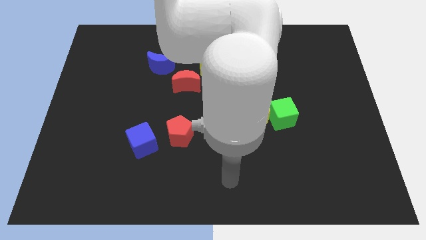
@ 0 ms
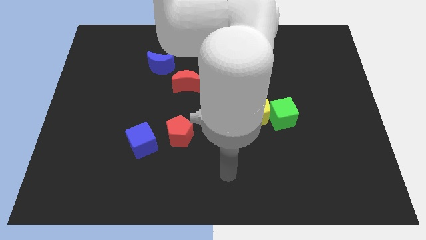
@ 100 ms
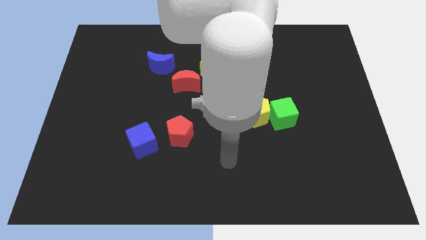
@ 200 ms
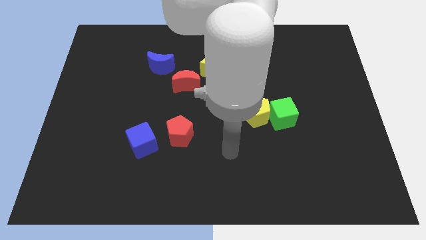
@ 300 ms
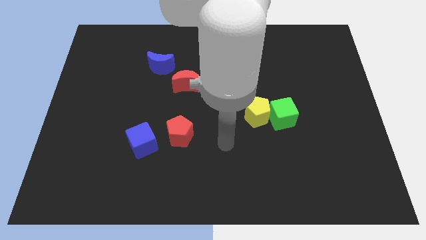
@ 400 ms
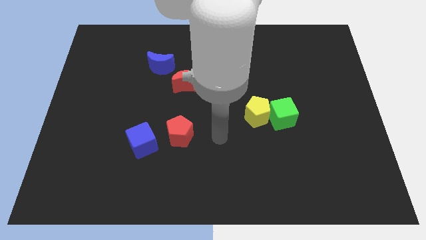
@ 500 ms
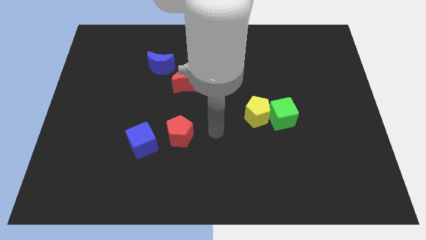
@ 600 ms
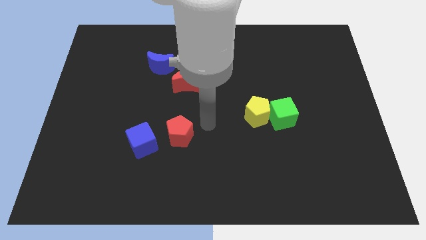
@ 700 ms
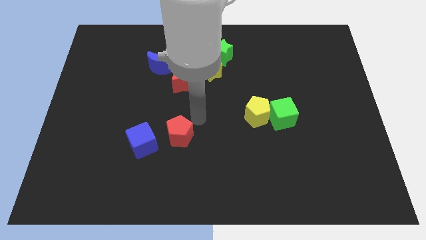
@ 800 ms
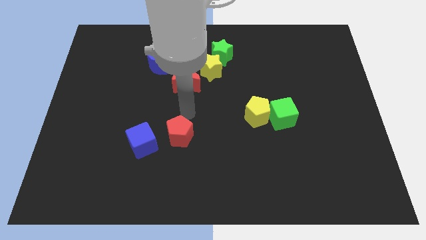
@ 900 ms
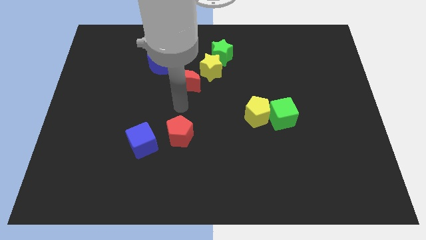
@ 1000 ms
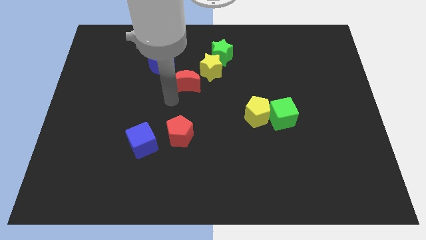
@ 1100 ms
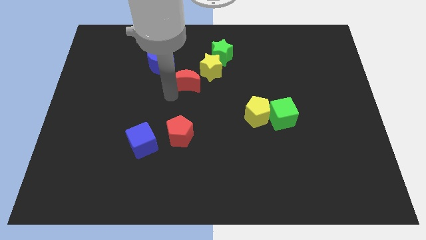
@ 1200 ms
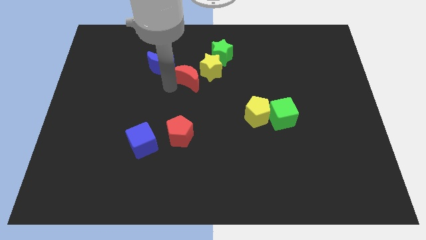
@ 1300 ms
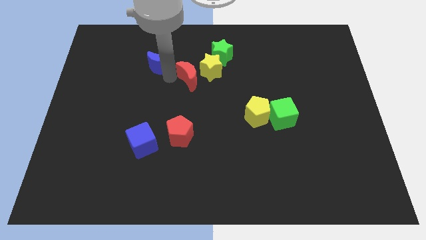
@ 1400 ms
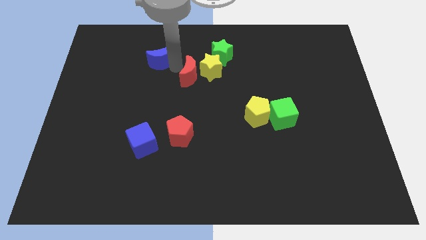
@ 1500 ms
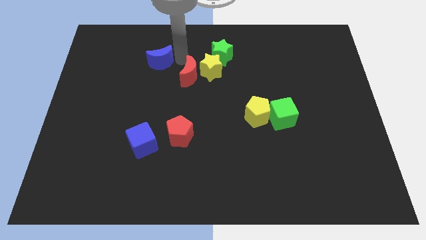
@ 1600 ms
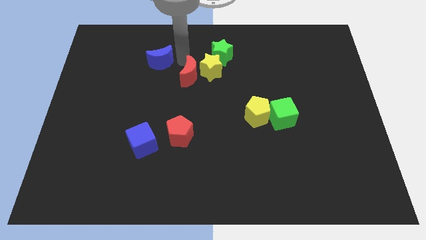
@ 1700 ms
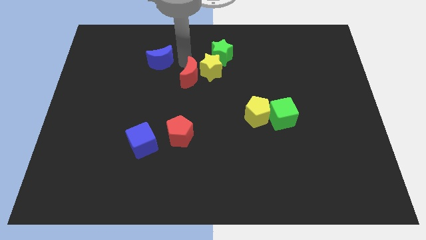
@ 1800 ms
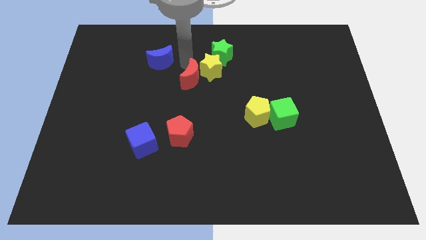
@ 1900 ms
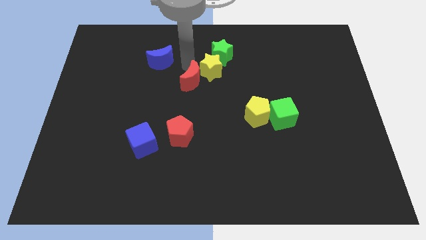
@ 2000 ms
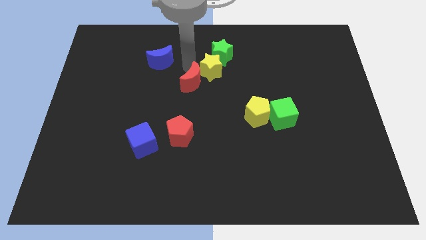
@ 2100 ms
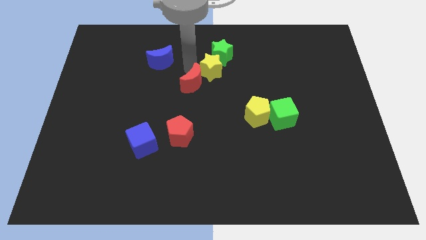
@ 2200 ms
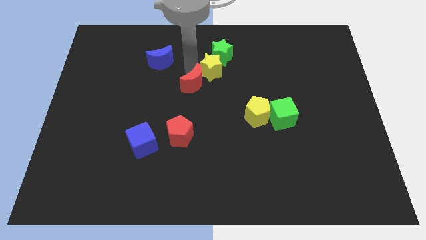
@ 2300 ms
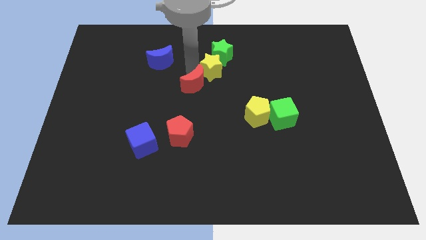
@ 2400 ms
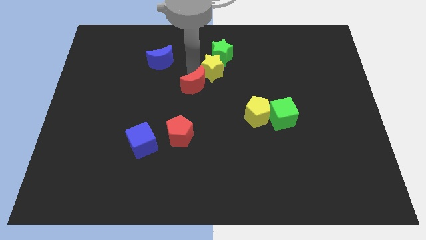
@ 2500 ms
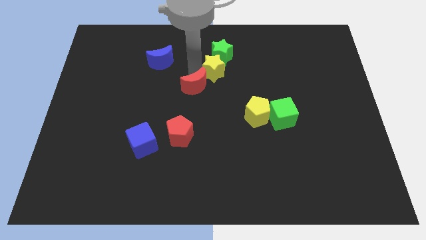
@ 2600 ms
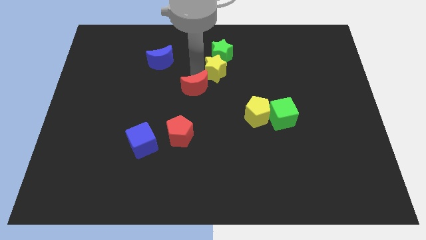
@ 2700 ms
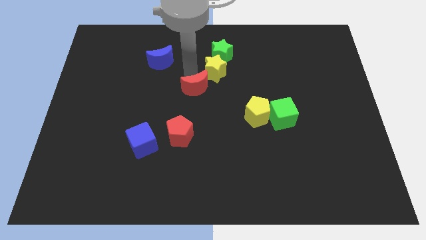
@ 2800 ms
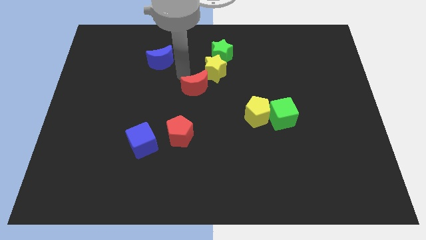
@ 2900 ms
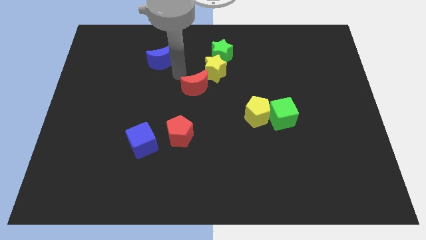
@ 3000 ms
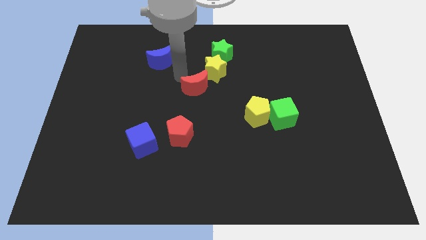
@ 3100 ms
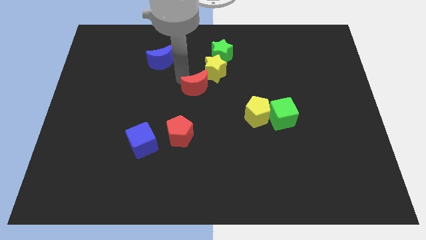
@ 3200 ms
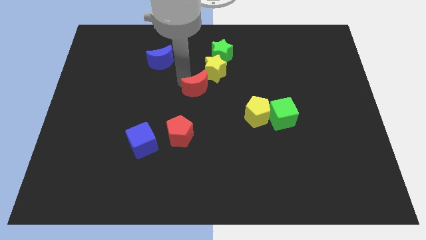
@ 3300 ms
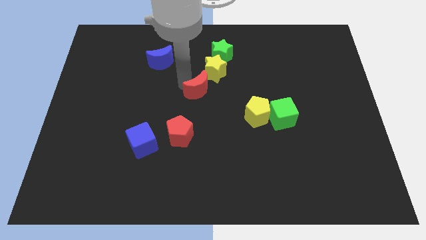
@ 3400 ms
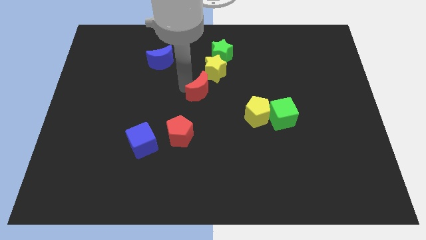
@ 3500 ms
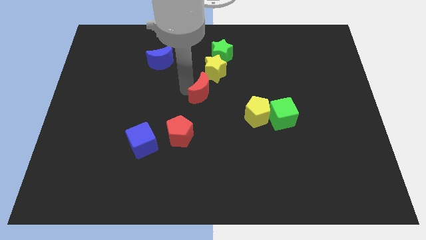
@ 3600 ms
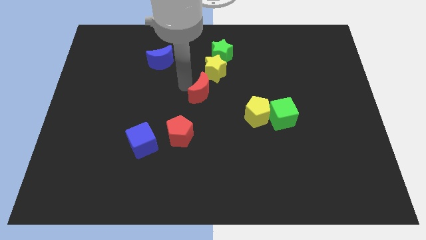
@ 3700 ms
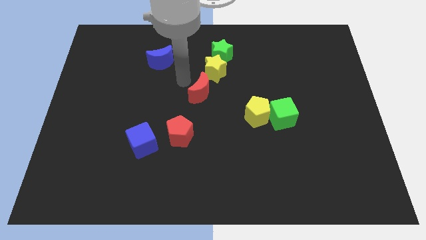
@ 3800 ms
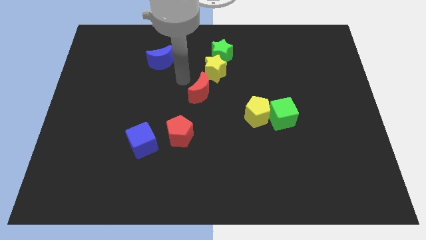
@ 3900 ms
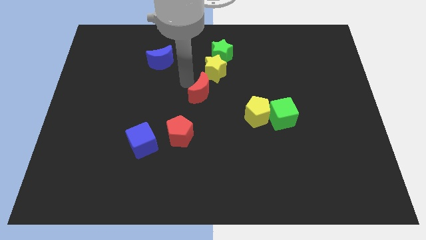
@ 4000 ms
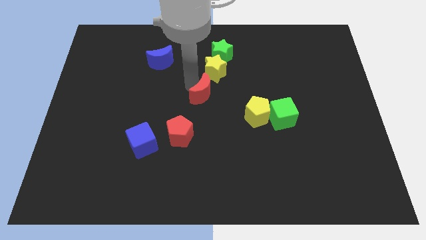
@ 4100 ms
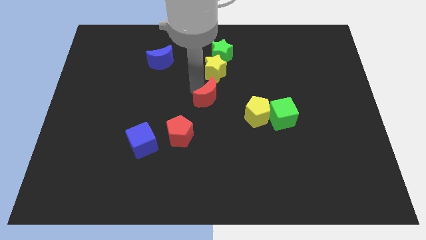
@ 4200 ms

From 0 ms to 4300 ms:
push the red moon slightly diagonally downwards and to the right

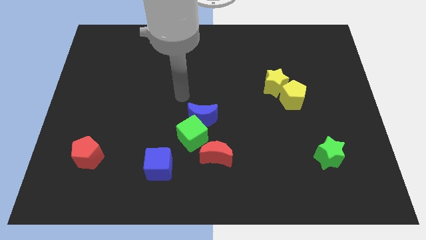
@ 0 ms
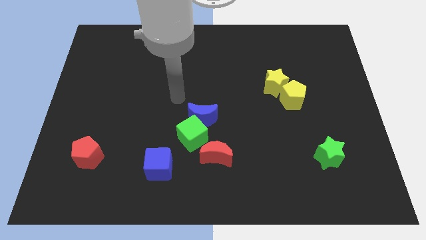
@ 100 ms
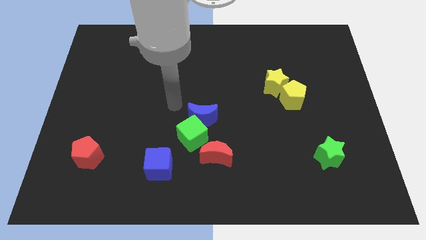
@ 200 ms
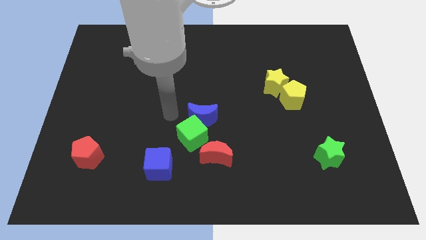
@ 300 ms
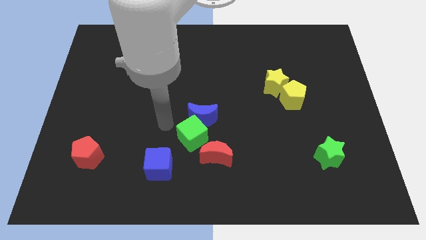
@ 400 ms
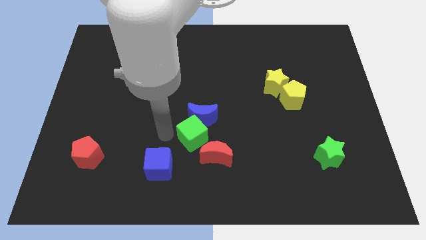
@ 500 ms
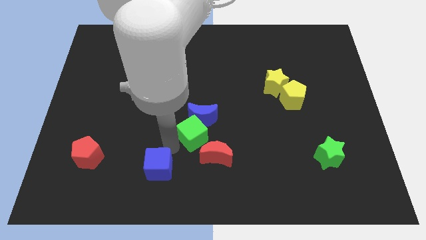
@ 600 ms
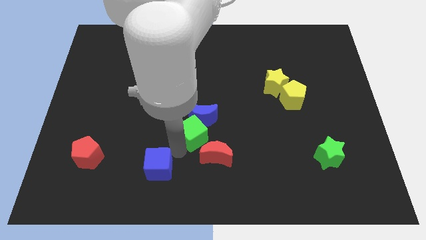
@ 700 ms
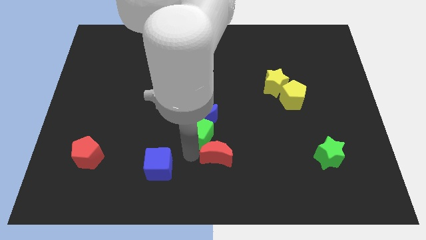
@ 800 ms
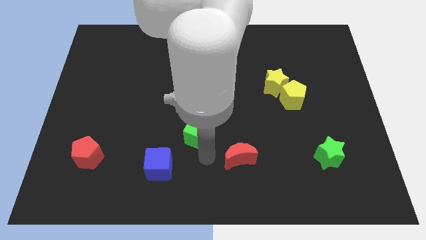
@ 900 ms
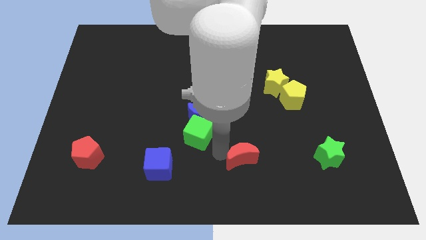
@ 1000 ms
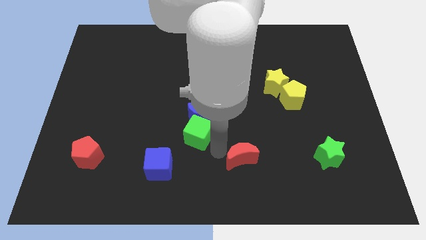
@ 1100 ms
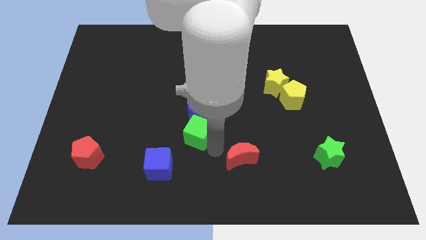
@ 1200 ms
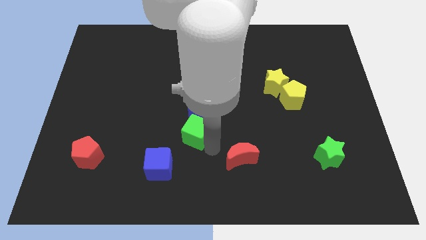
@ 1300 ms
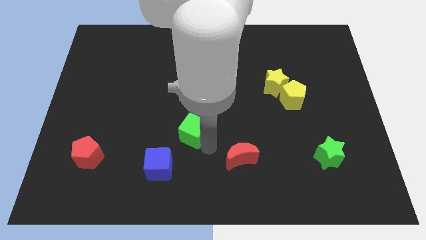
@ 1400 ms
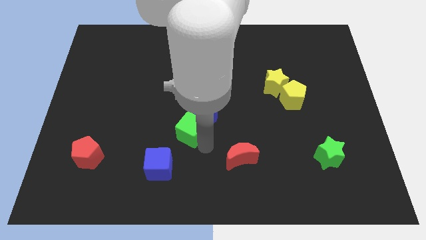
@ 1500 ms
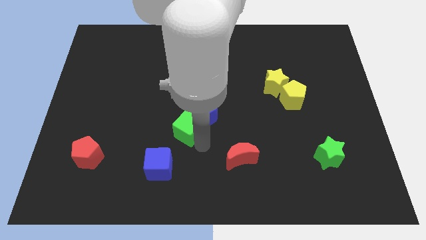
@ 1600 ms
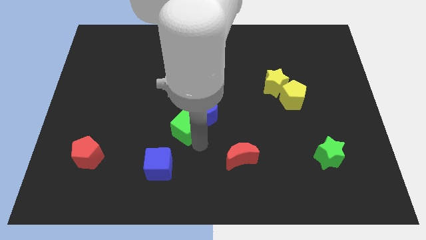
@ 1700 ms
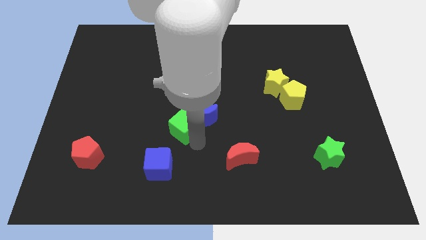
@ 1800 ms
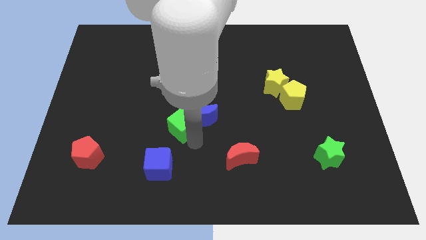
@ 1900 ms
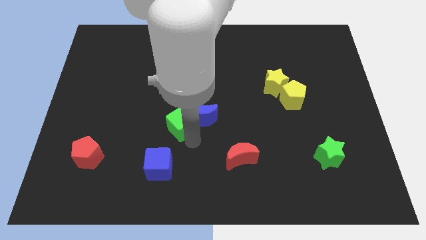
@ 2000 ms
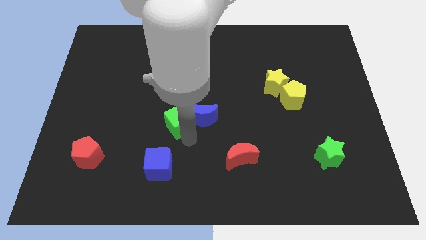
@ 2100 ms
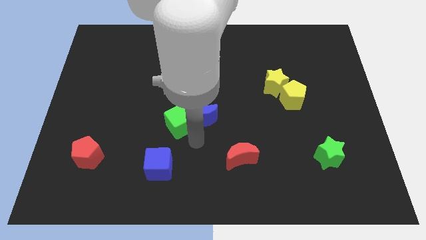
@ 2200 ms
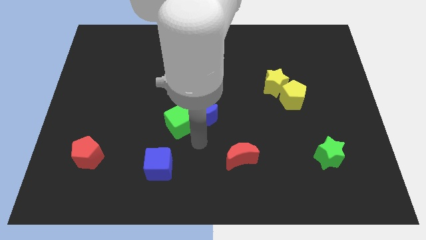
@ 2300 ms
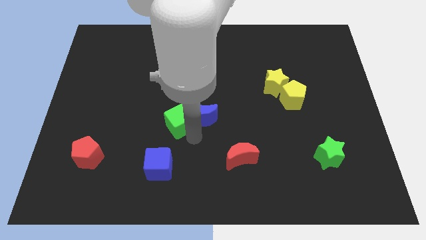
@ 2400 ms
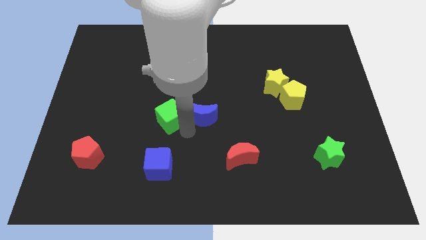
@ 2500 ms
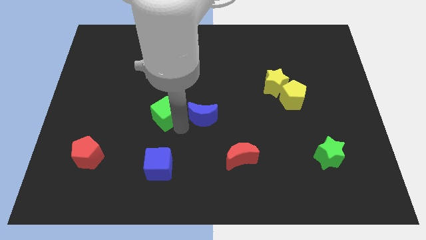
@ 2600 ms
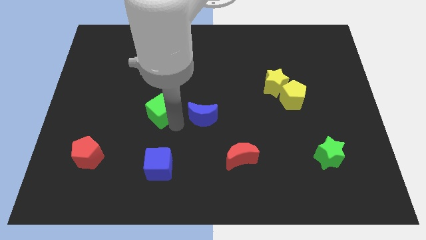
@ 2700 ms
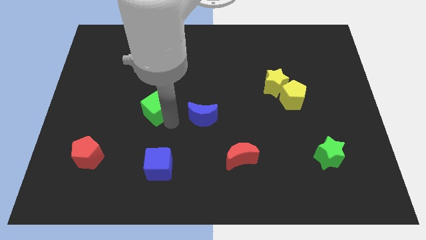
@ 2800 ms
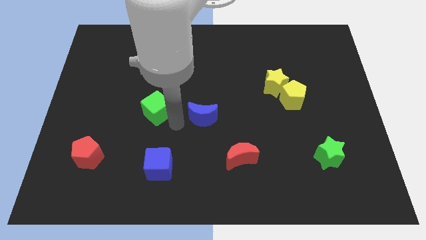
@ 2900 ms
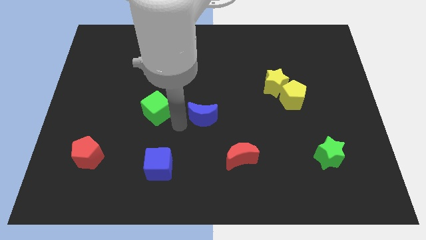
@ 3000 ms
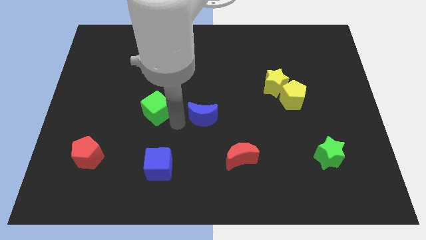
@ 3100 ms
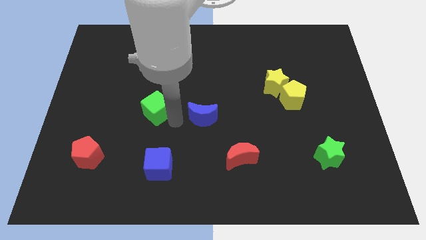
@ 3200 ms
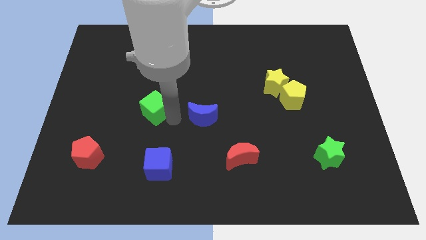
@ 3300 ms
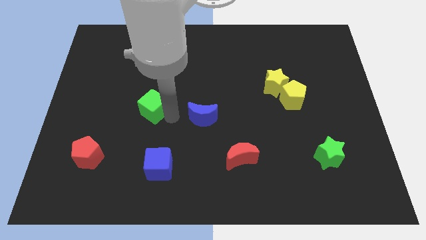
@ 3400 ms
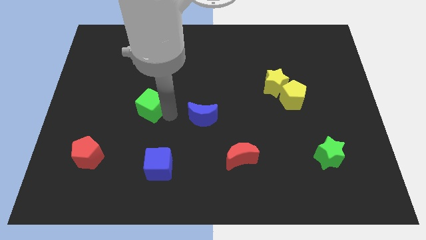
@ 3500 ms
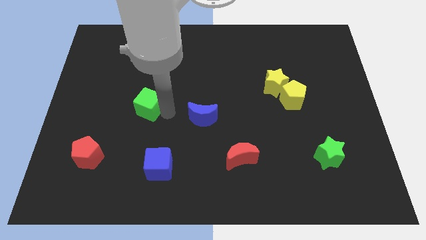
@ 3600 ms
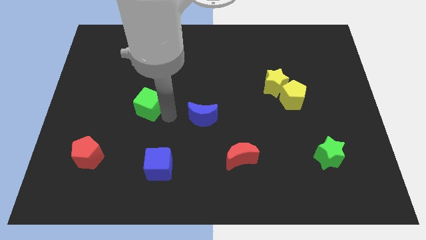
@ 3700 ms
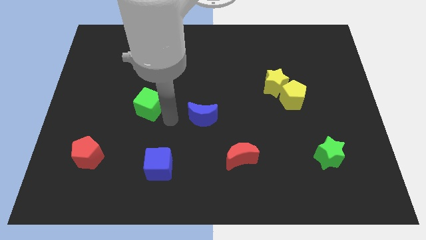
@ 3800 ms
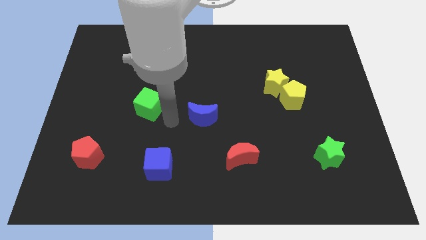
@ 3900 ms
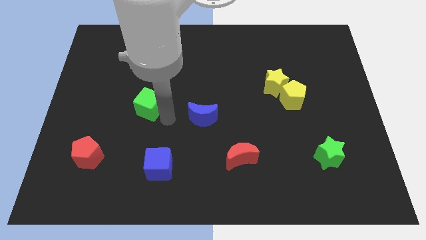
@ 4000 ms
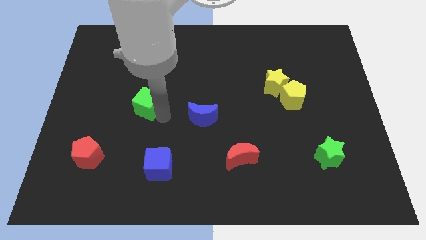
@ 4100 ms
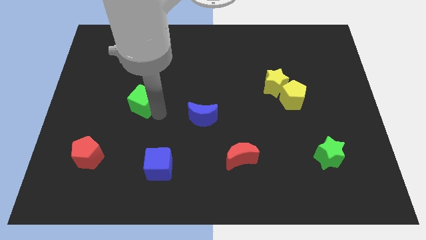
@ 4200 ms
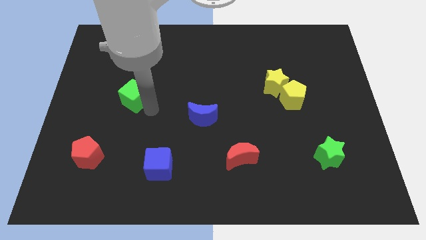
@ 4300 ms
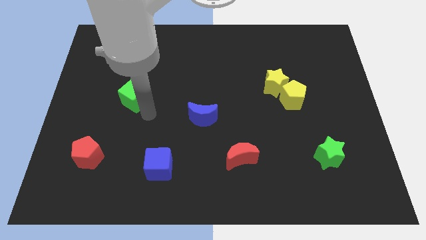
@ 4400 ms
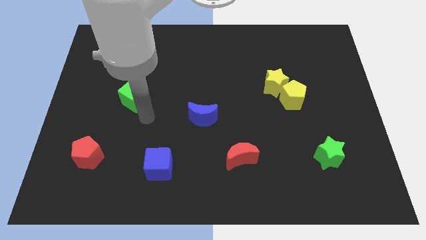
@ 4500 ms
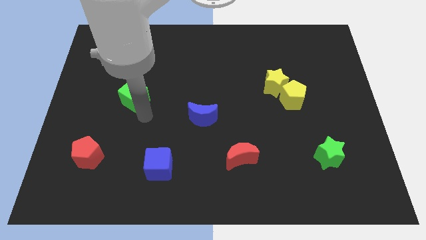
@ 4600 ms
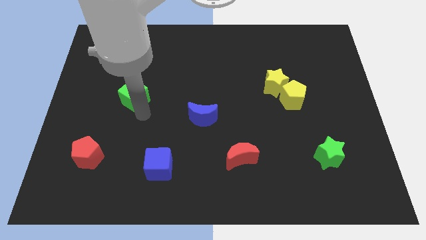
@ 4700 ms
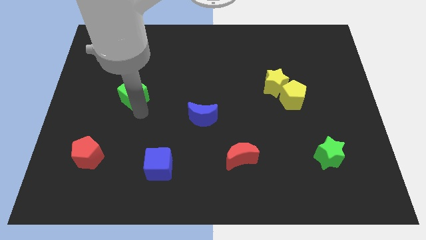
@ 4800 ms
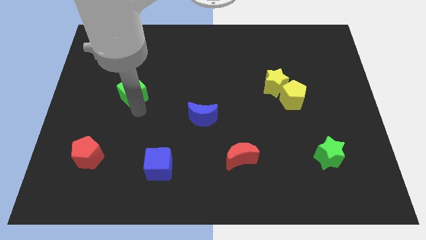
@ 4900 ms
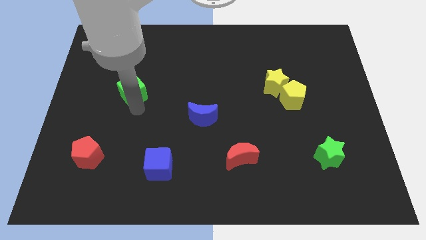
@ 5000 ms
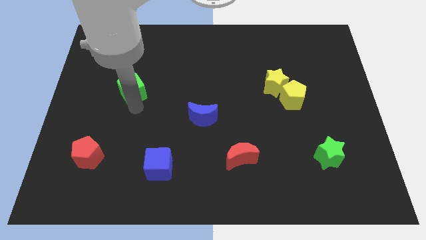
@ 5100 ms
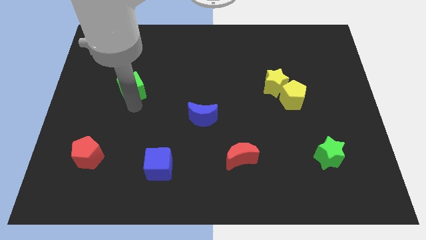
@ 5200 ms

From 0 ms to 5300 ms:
push the green cube upwards and left diagonally
